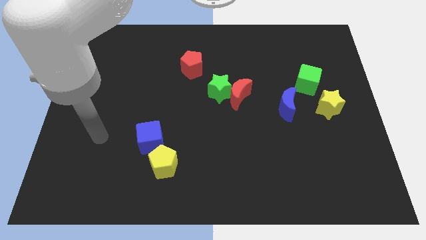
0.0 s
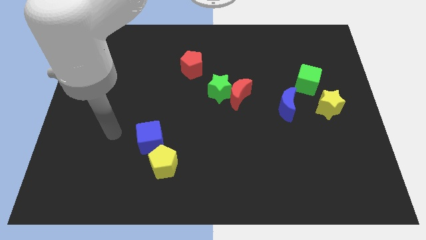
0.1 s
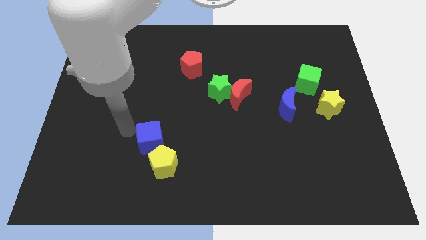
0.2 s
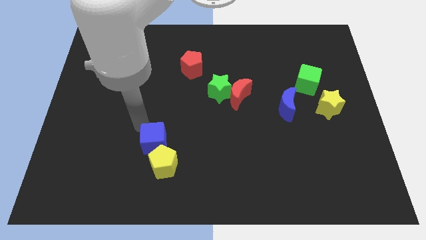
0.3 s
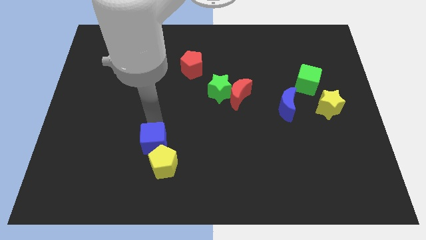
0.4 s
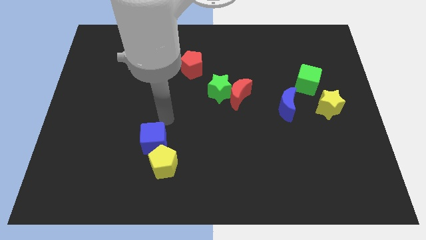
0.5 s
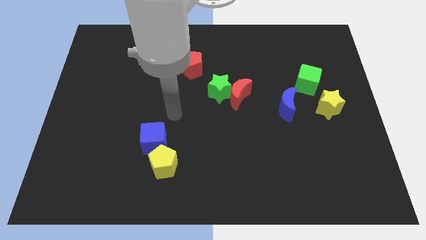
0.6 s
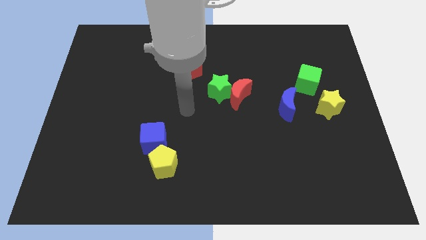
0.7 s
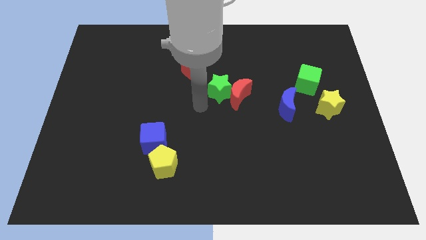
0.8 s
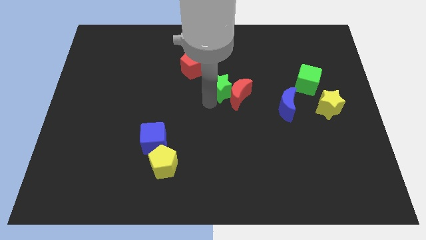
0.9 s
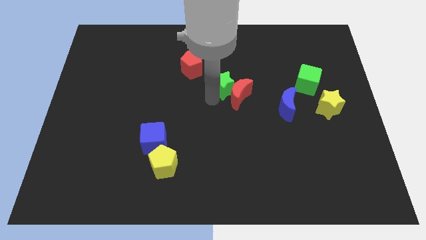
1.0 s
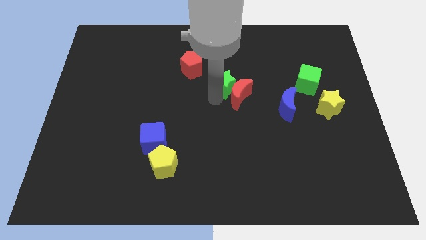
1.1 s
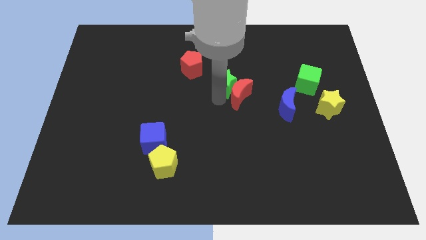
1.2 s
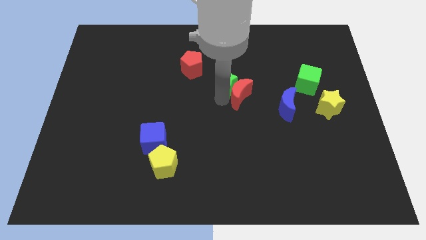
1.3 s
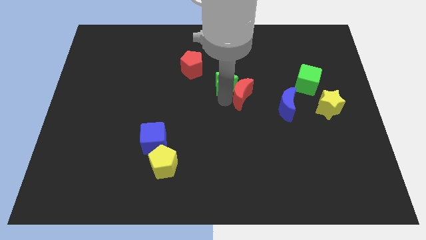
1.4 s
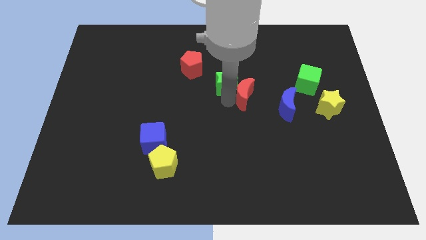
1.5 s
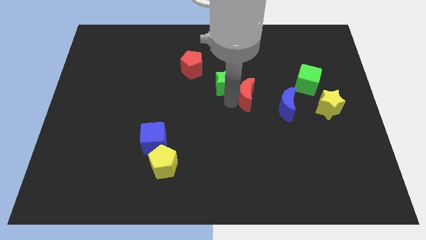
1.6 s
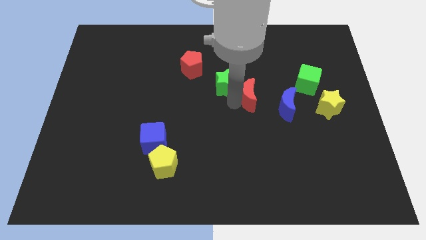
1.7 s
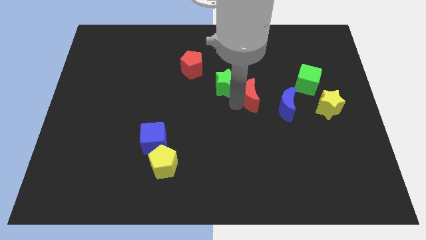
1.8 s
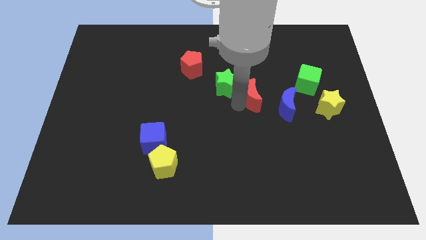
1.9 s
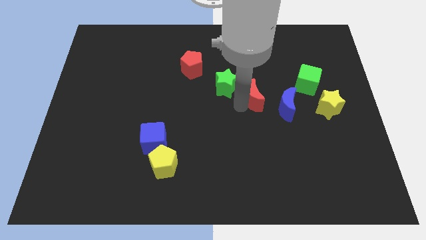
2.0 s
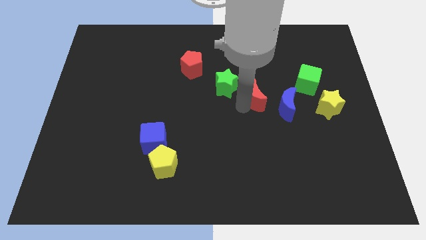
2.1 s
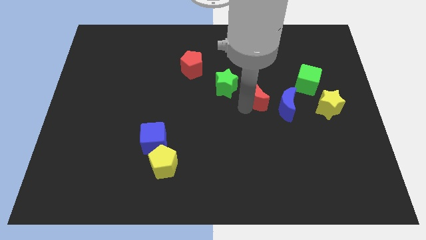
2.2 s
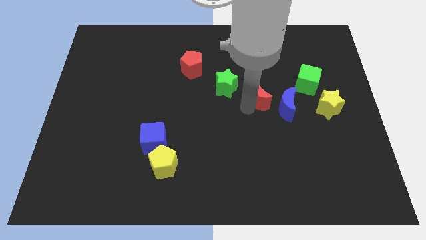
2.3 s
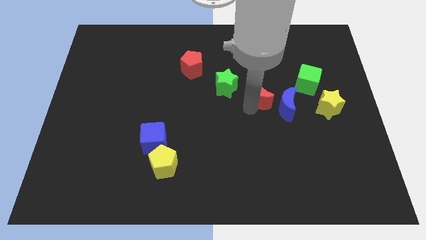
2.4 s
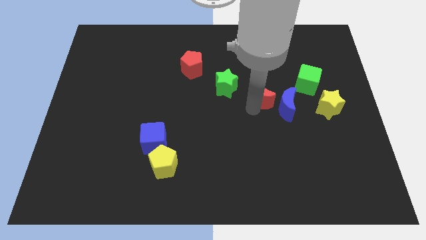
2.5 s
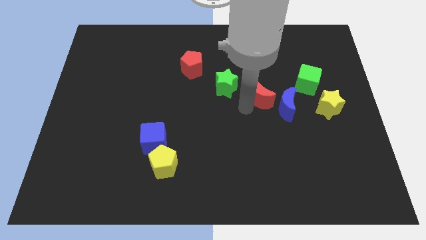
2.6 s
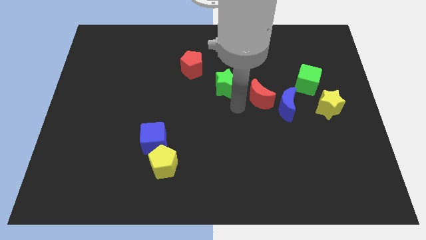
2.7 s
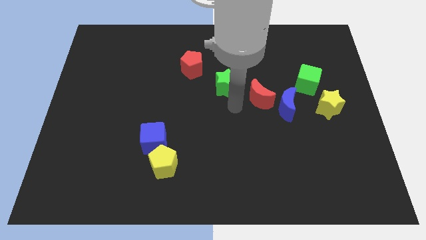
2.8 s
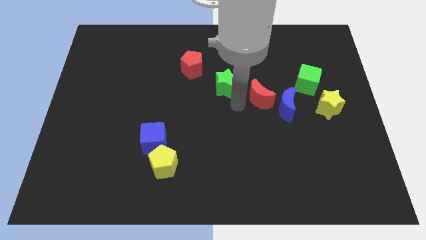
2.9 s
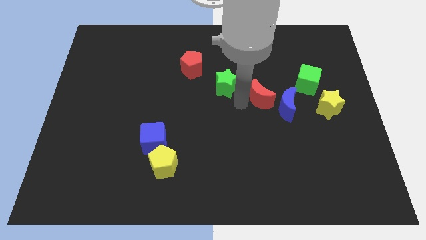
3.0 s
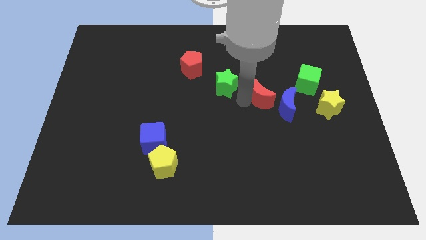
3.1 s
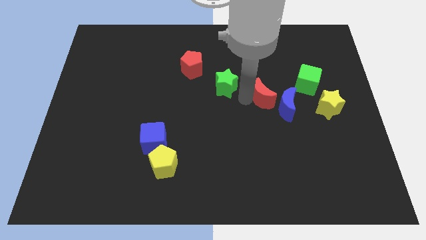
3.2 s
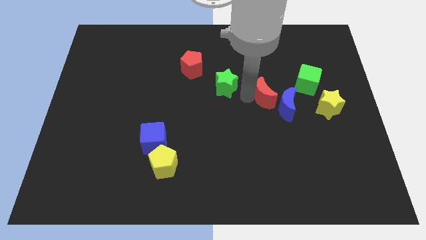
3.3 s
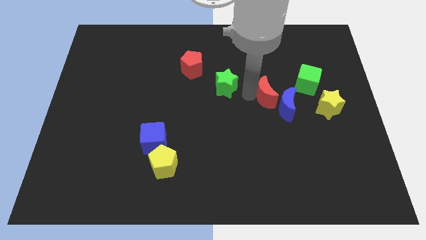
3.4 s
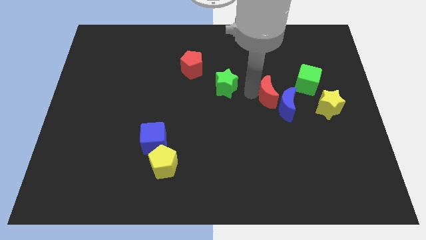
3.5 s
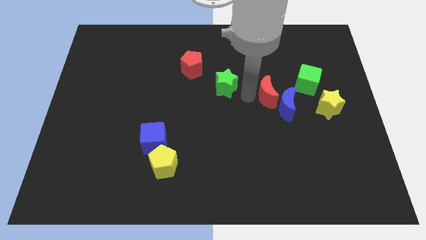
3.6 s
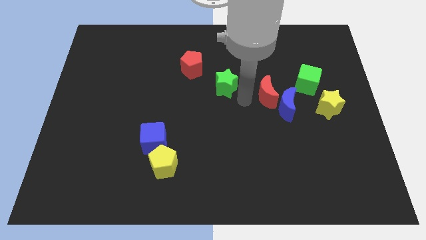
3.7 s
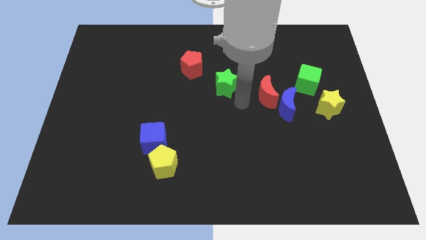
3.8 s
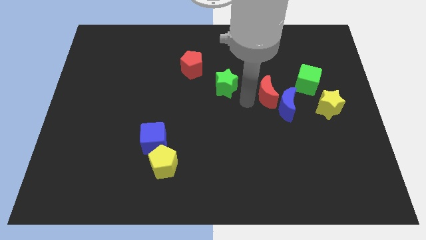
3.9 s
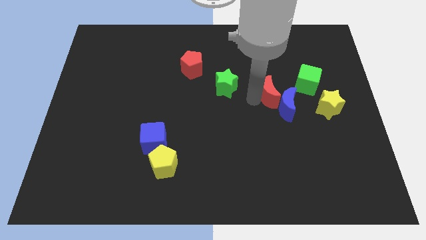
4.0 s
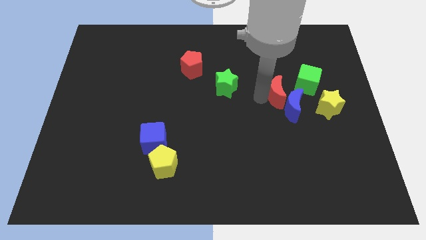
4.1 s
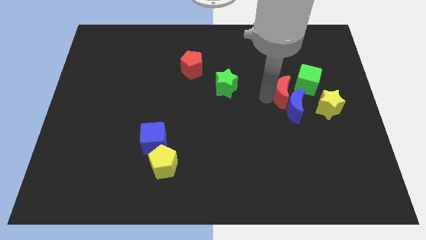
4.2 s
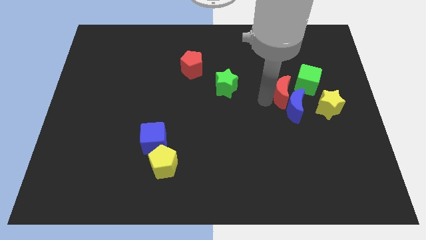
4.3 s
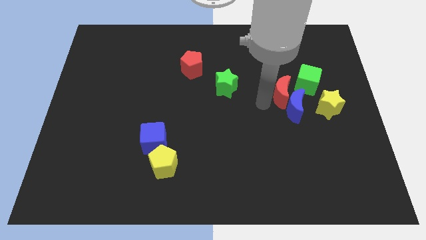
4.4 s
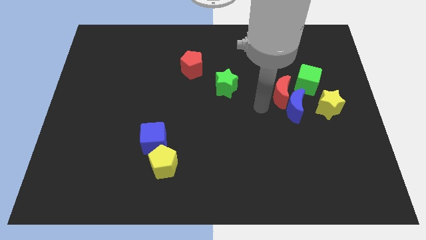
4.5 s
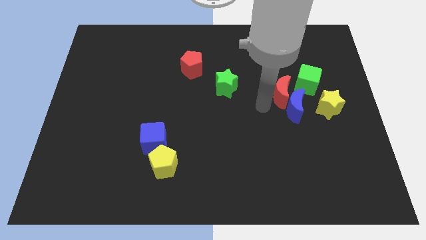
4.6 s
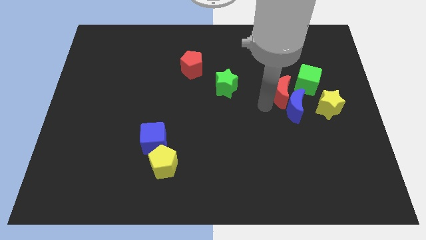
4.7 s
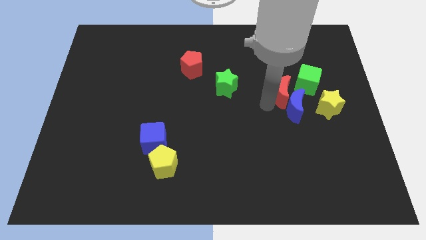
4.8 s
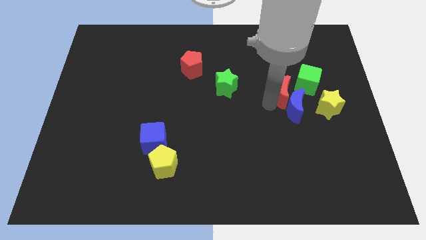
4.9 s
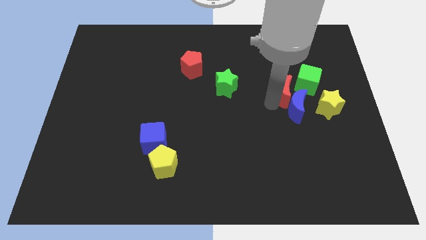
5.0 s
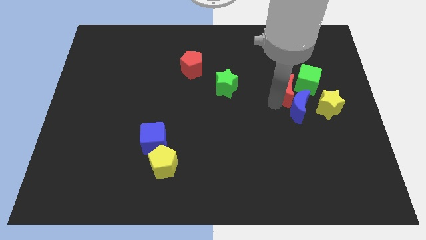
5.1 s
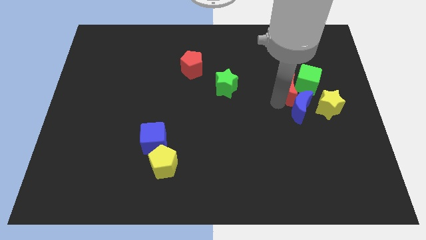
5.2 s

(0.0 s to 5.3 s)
move the red moon to the green cube

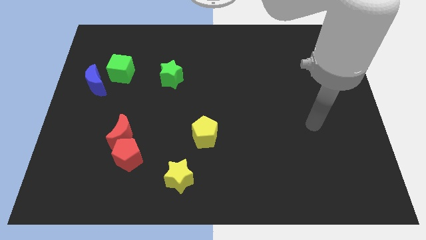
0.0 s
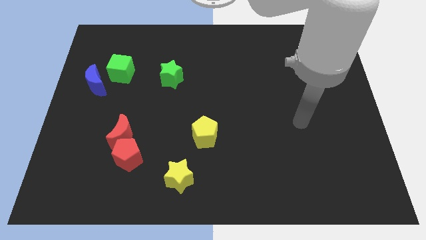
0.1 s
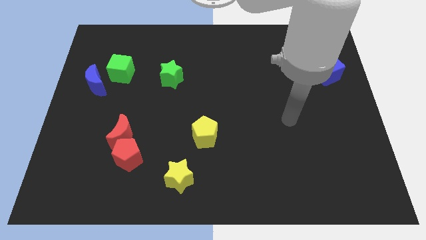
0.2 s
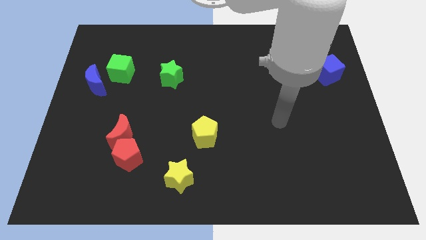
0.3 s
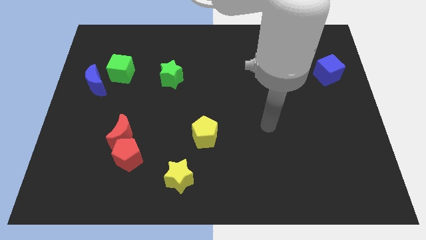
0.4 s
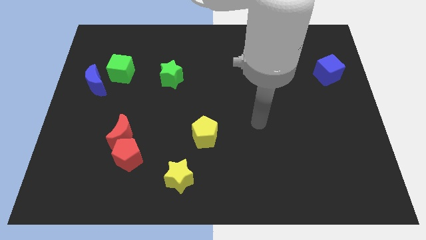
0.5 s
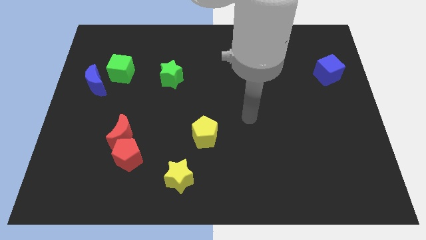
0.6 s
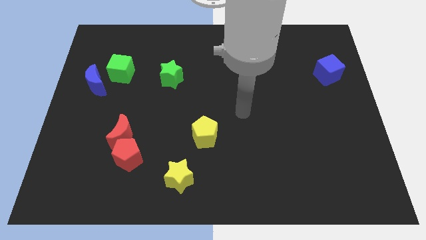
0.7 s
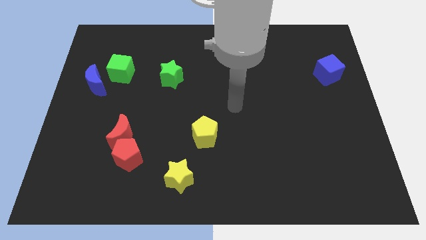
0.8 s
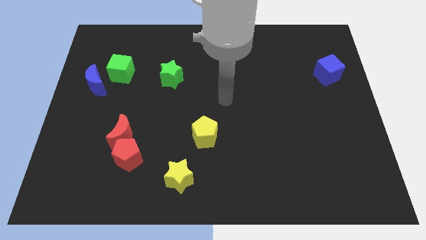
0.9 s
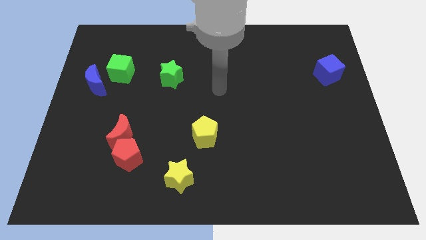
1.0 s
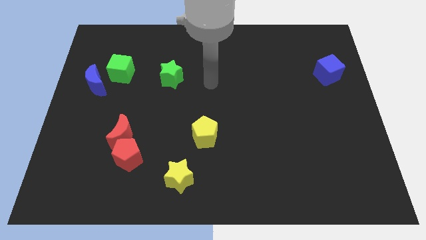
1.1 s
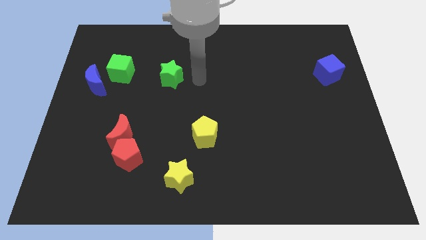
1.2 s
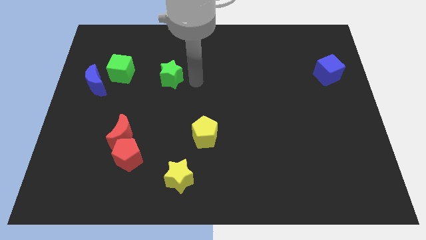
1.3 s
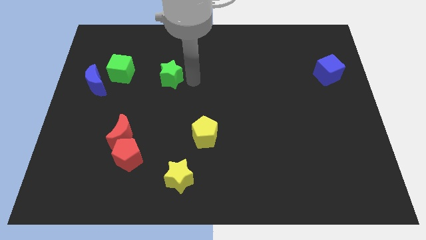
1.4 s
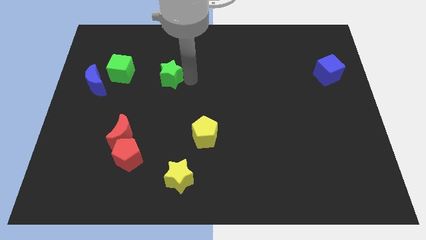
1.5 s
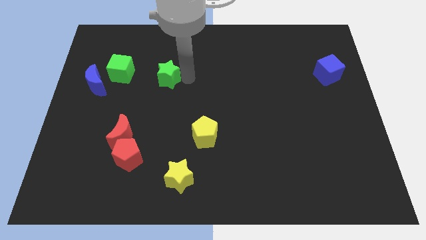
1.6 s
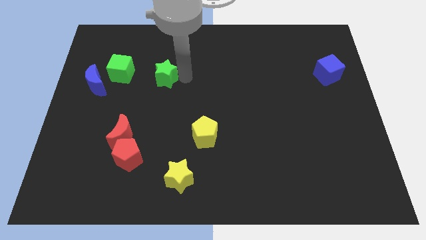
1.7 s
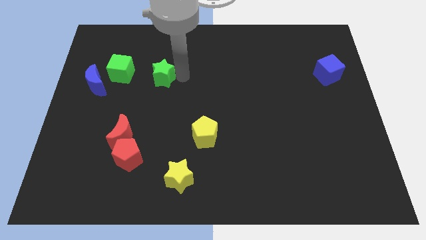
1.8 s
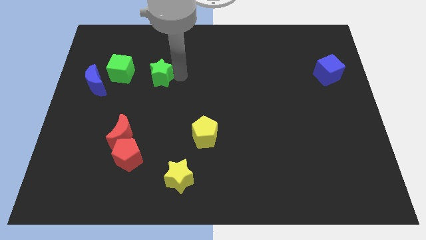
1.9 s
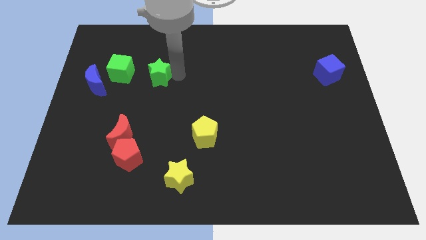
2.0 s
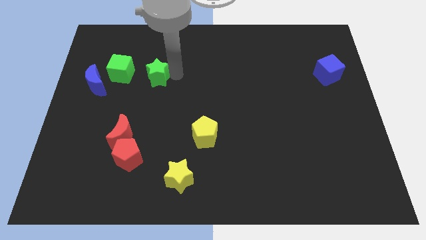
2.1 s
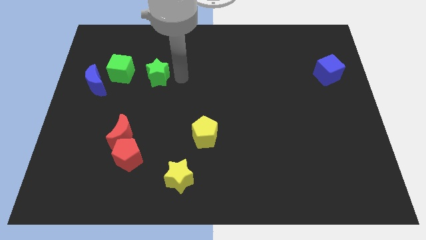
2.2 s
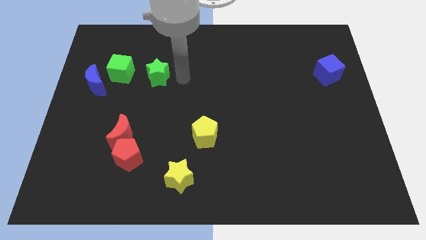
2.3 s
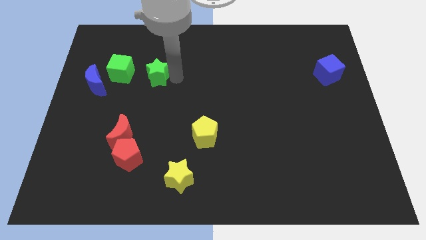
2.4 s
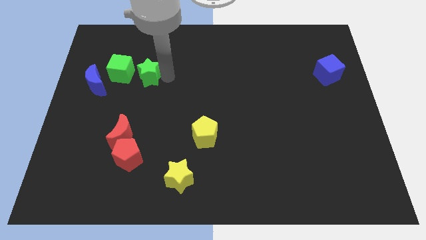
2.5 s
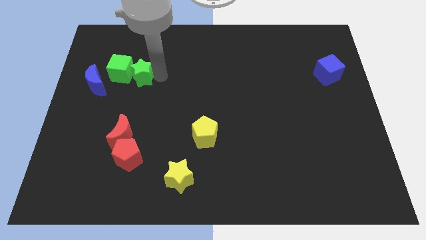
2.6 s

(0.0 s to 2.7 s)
move the green star next to the green cube
